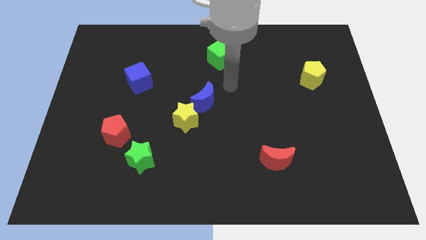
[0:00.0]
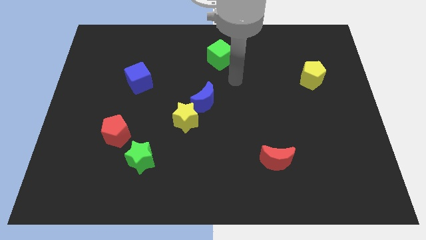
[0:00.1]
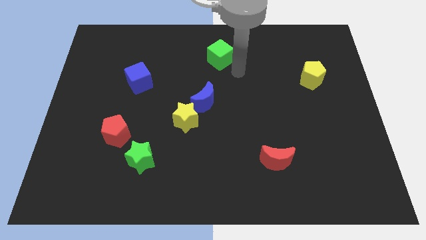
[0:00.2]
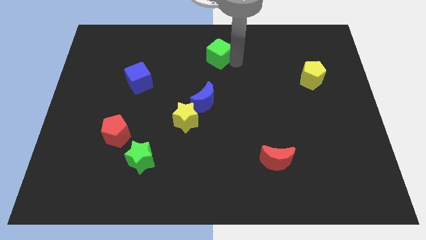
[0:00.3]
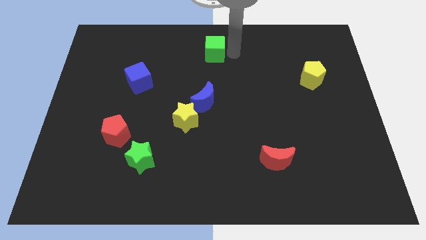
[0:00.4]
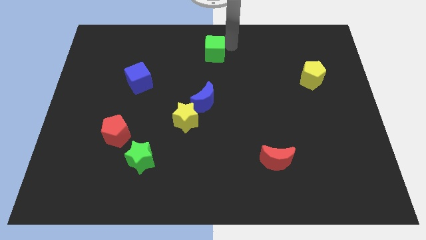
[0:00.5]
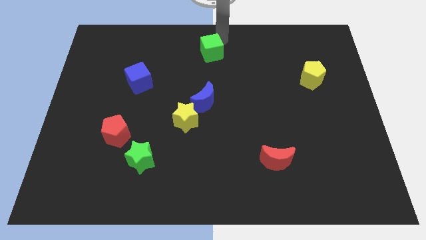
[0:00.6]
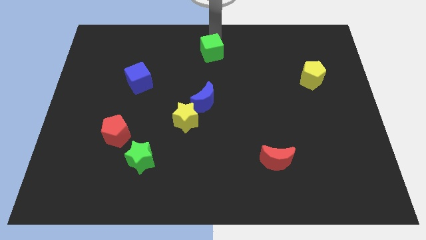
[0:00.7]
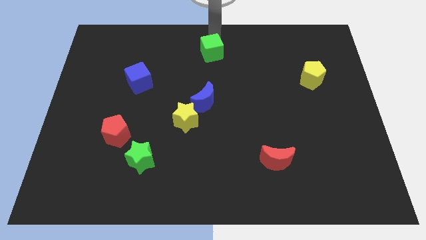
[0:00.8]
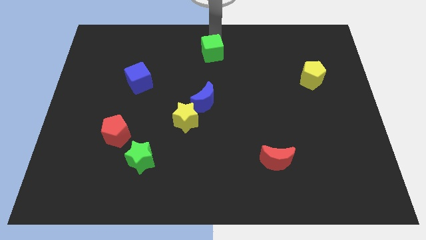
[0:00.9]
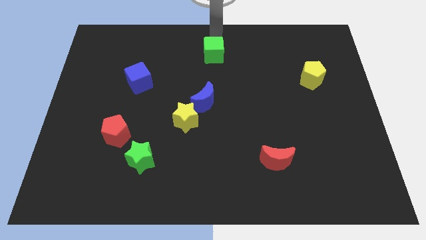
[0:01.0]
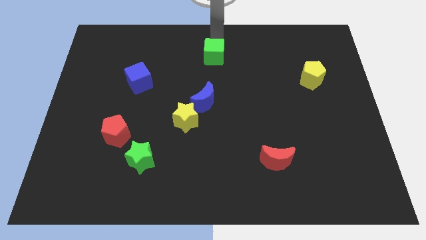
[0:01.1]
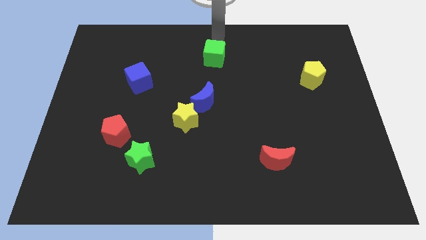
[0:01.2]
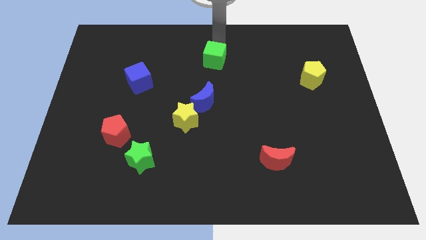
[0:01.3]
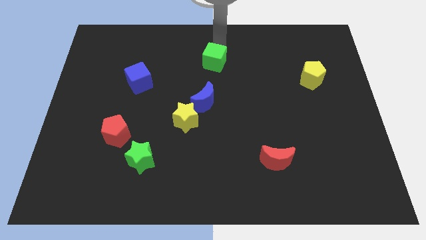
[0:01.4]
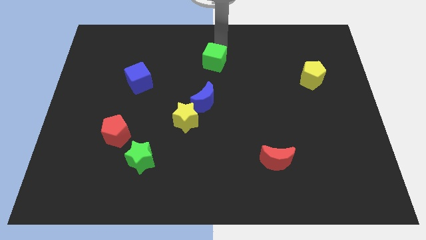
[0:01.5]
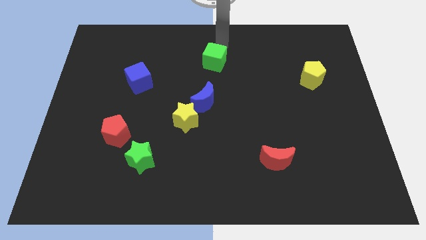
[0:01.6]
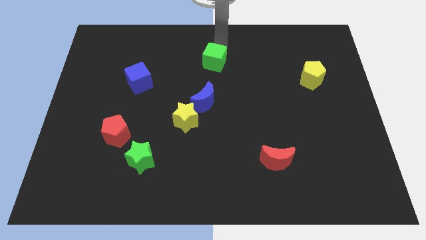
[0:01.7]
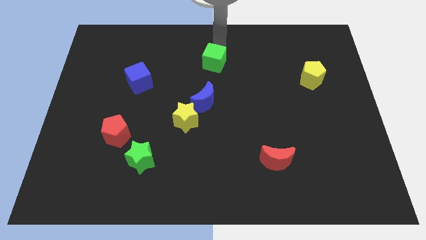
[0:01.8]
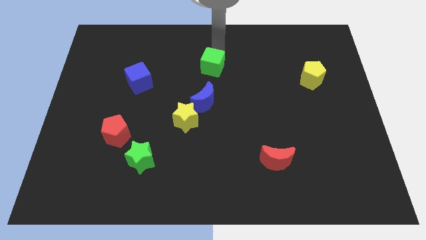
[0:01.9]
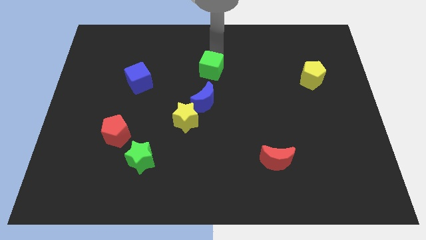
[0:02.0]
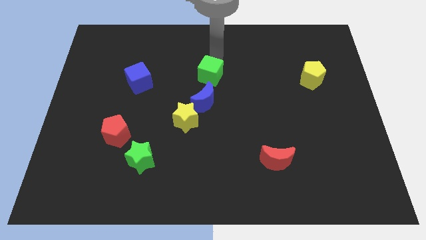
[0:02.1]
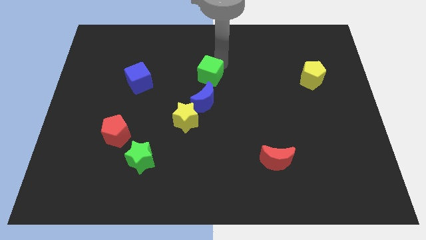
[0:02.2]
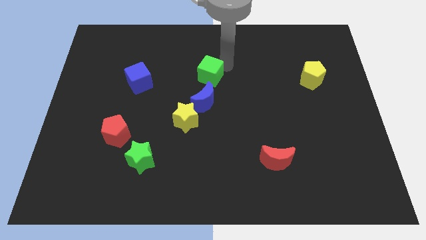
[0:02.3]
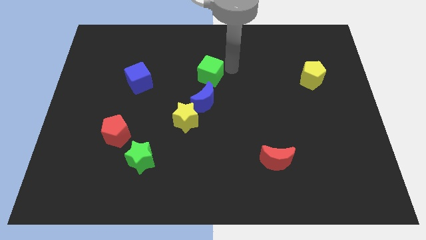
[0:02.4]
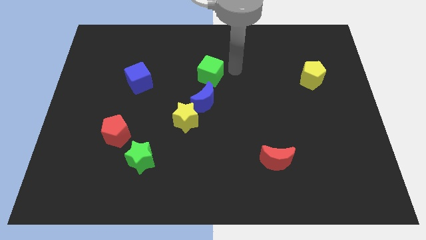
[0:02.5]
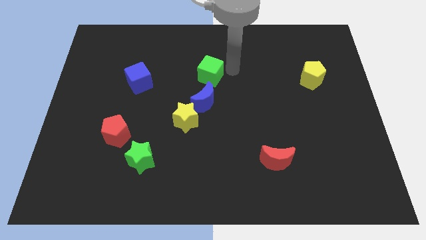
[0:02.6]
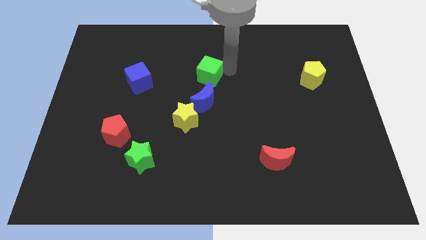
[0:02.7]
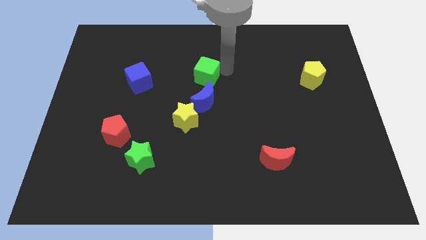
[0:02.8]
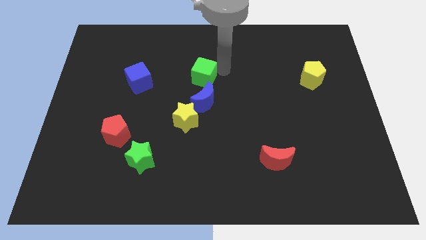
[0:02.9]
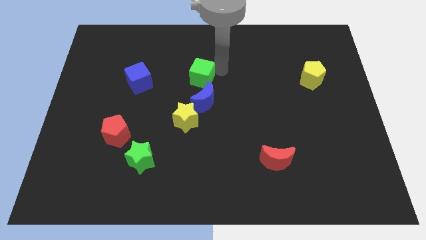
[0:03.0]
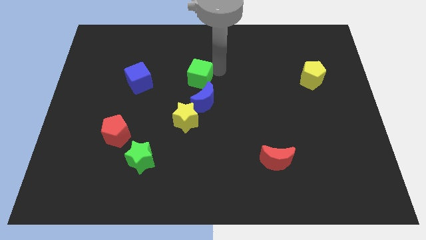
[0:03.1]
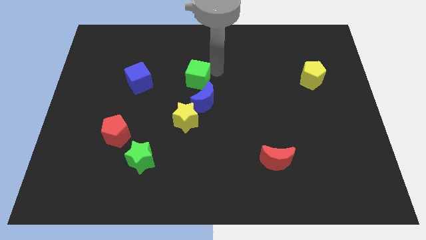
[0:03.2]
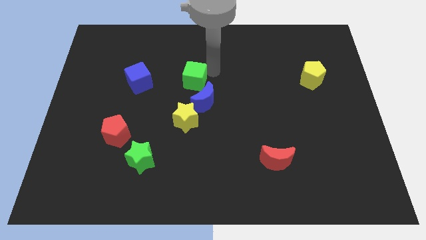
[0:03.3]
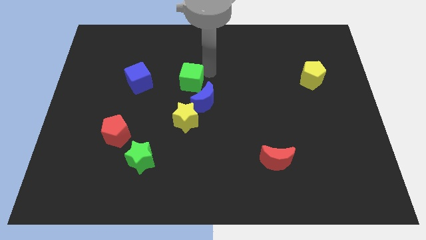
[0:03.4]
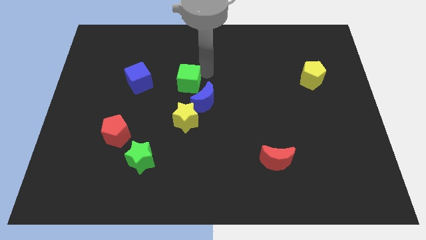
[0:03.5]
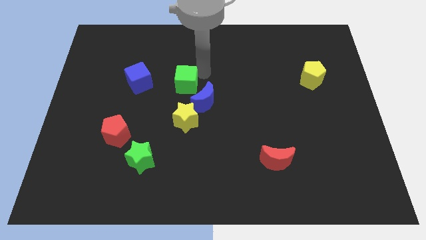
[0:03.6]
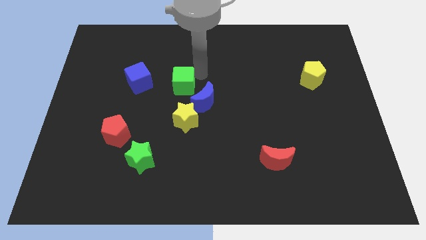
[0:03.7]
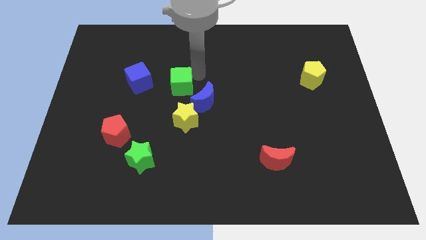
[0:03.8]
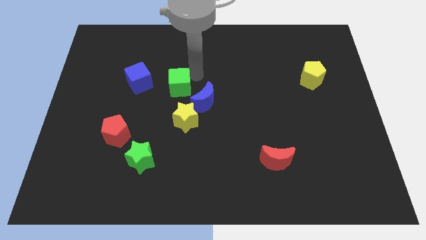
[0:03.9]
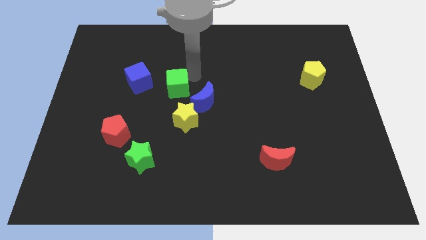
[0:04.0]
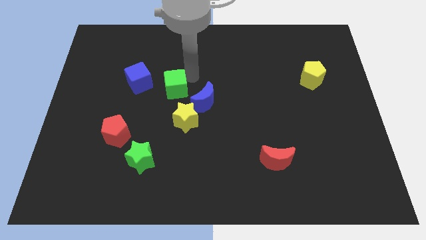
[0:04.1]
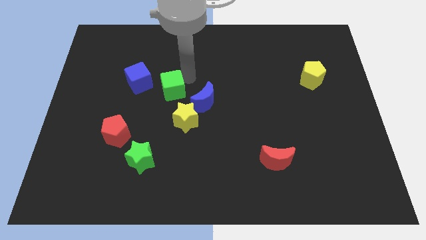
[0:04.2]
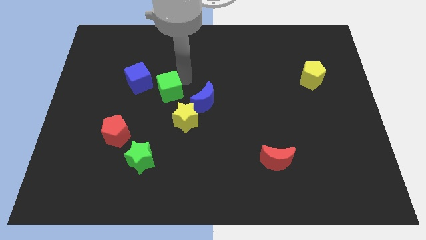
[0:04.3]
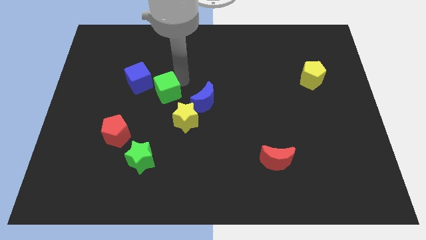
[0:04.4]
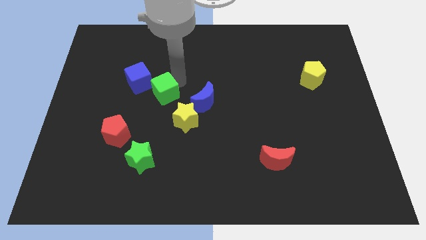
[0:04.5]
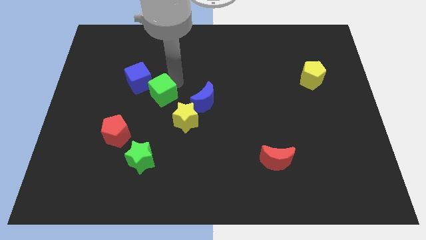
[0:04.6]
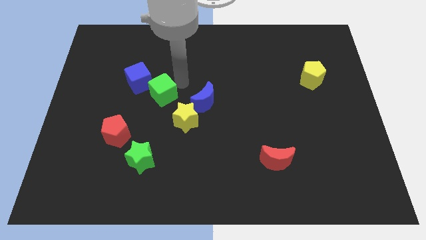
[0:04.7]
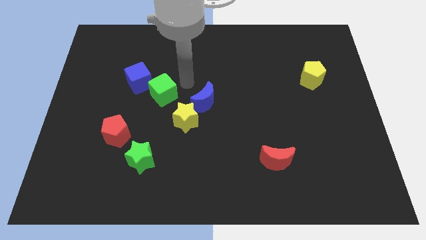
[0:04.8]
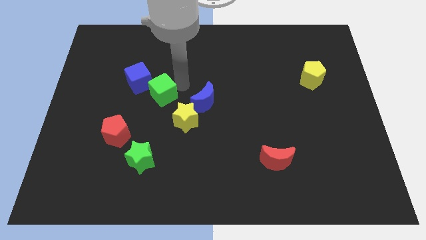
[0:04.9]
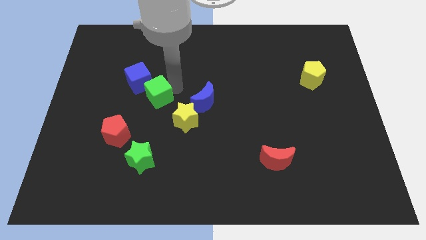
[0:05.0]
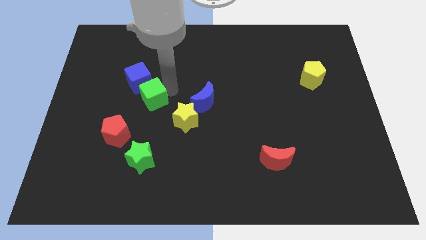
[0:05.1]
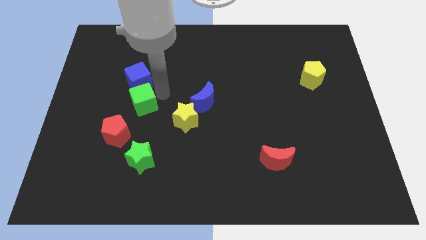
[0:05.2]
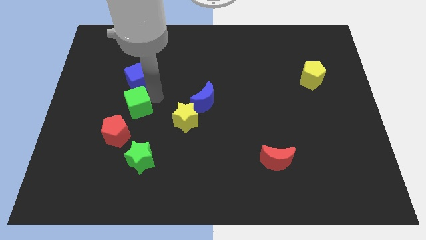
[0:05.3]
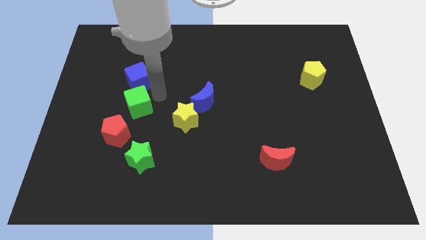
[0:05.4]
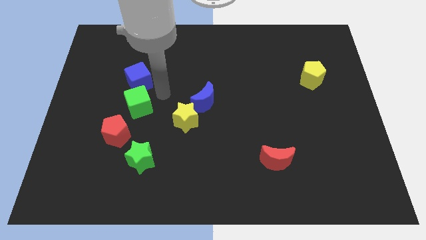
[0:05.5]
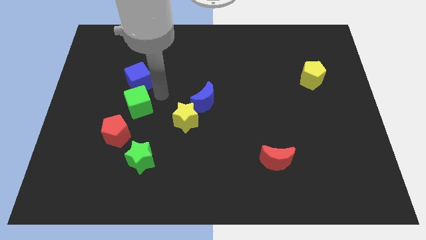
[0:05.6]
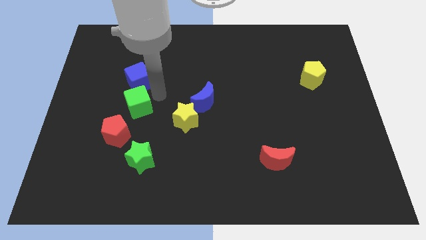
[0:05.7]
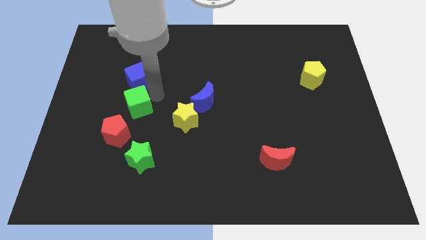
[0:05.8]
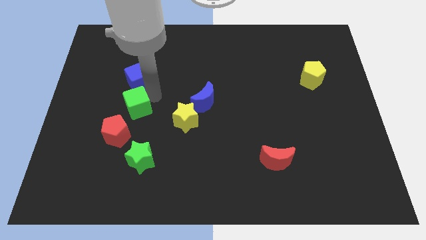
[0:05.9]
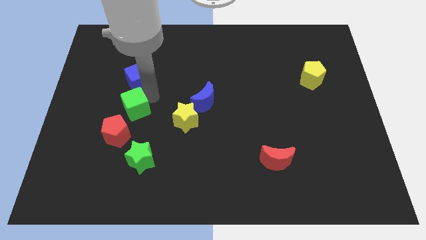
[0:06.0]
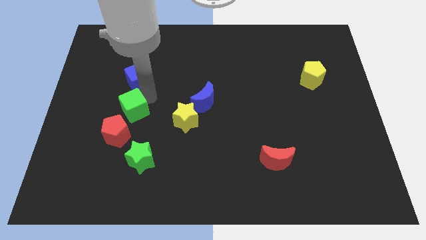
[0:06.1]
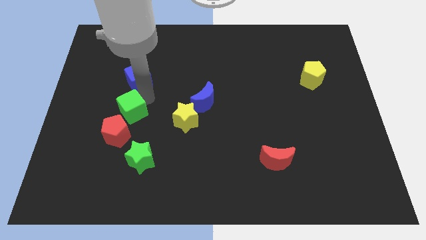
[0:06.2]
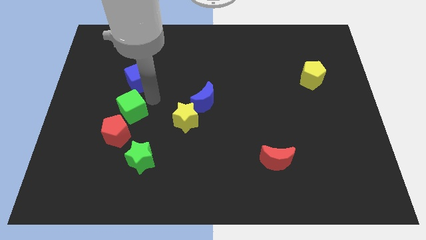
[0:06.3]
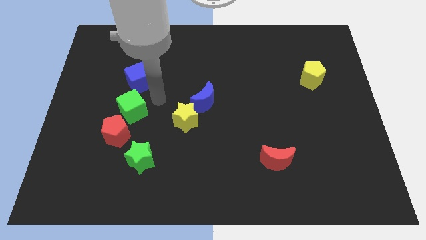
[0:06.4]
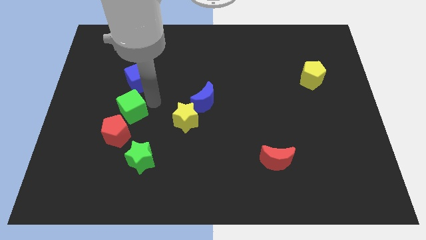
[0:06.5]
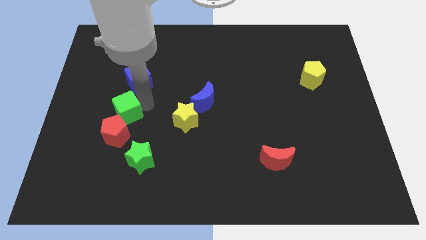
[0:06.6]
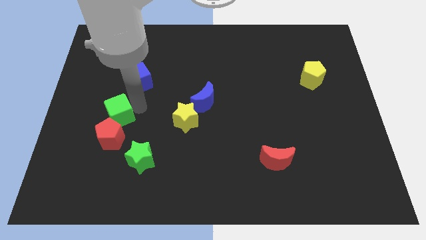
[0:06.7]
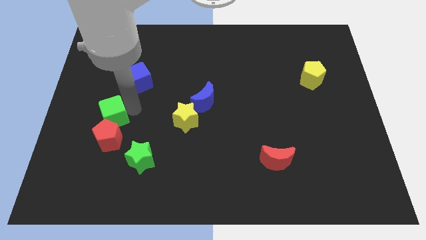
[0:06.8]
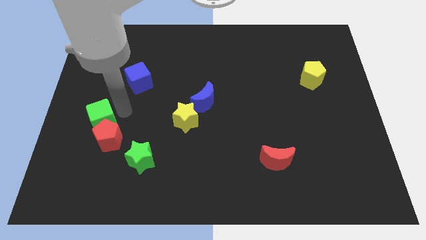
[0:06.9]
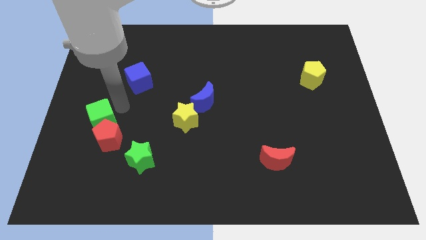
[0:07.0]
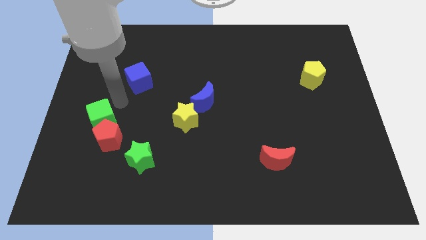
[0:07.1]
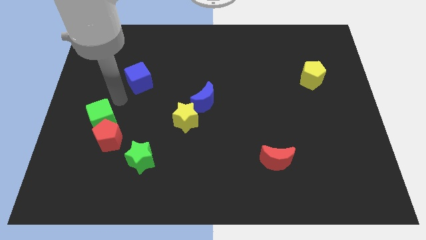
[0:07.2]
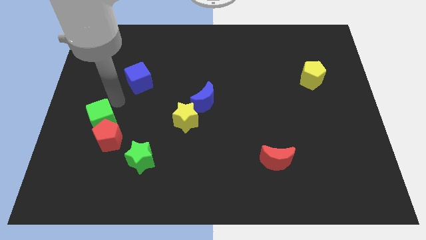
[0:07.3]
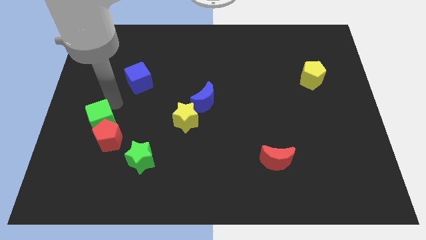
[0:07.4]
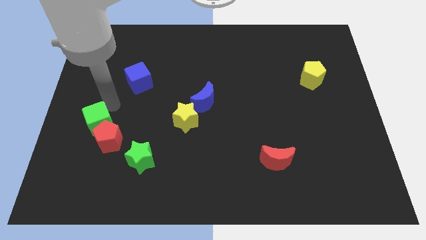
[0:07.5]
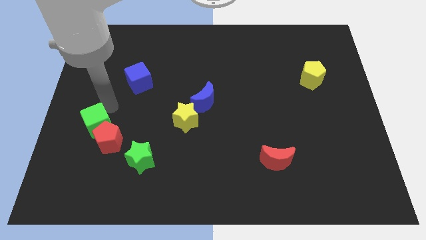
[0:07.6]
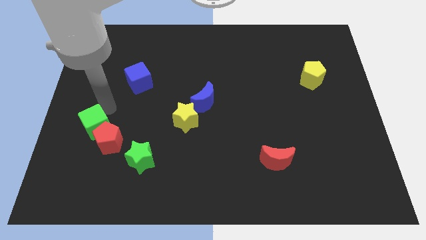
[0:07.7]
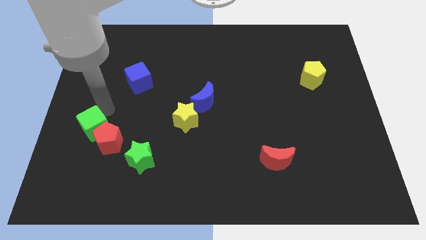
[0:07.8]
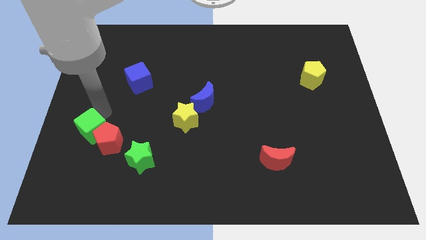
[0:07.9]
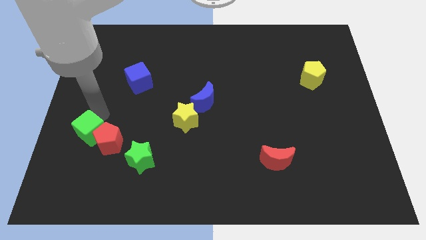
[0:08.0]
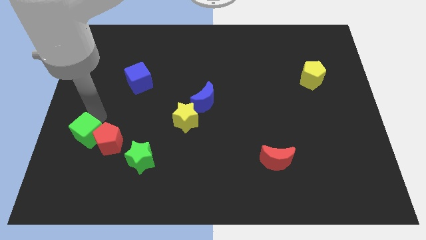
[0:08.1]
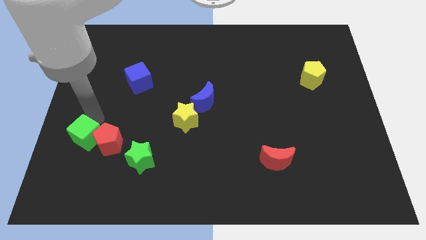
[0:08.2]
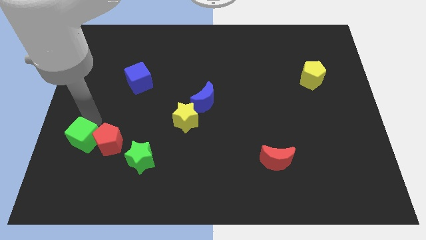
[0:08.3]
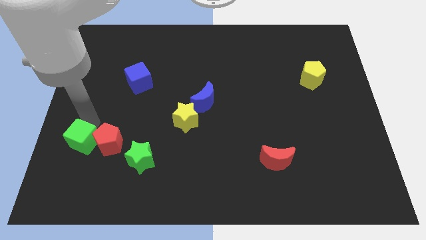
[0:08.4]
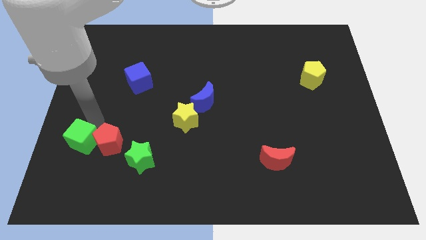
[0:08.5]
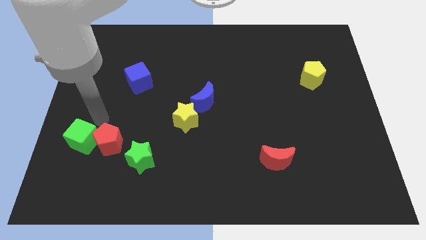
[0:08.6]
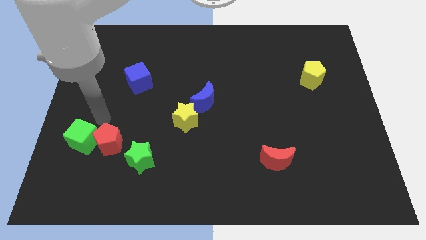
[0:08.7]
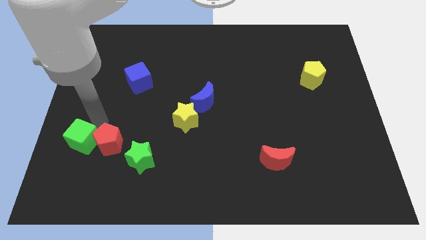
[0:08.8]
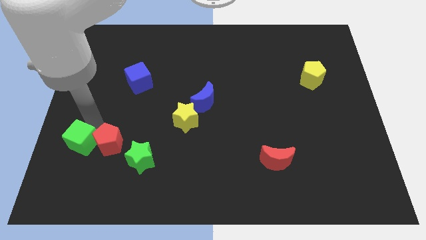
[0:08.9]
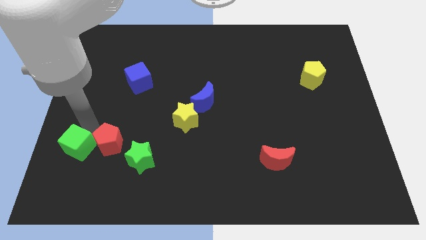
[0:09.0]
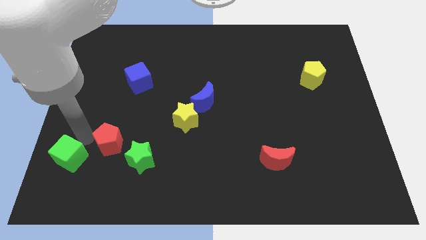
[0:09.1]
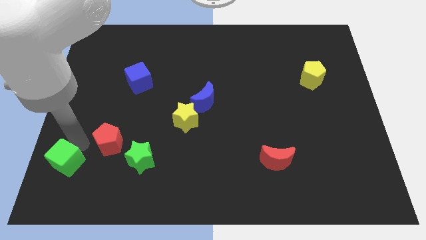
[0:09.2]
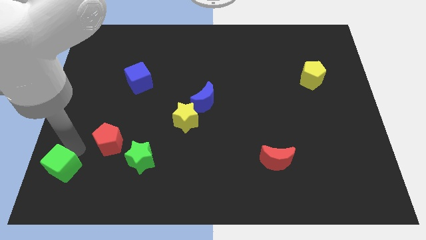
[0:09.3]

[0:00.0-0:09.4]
put the green cube to the bottom left of the board
